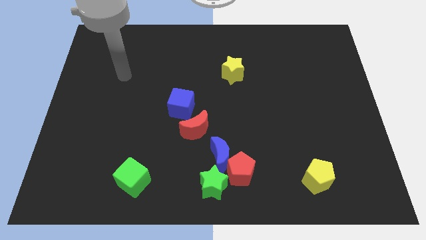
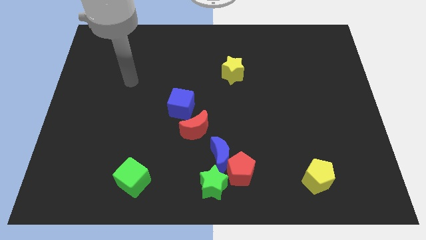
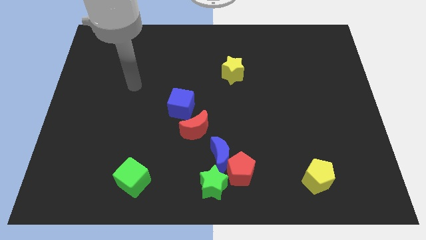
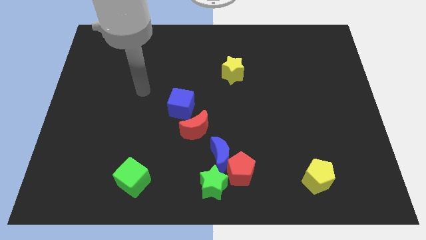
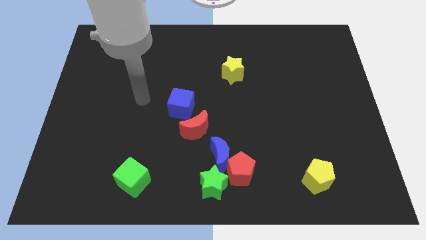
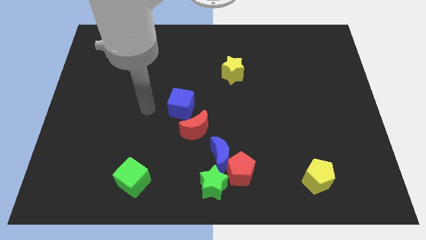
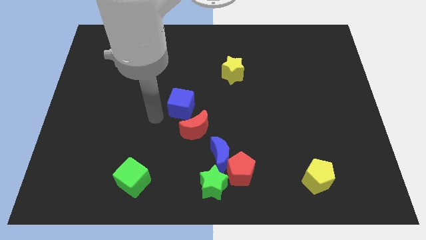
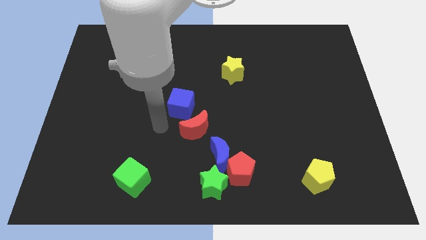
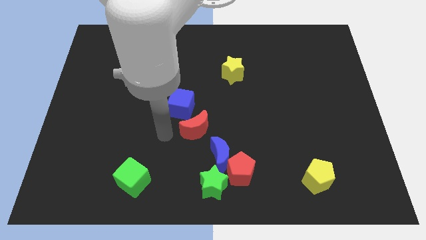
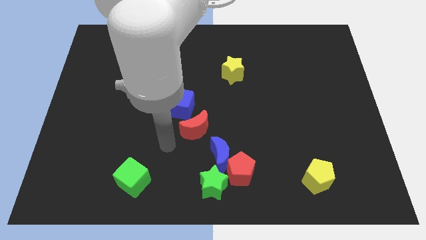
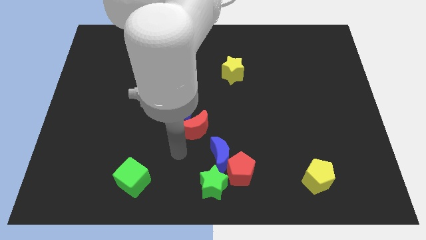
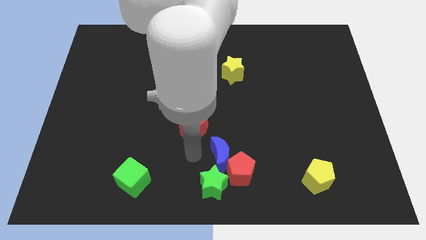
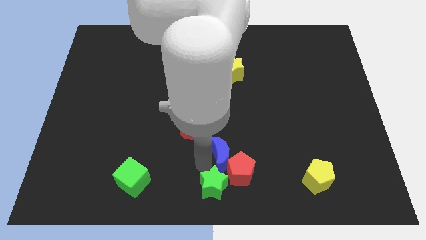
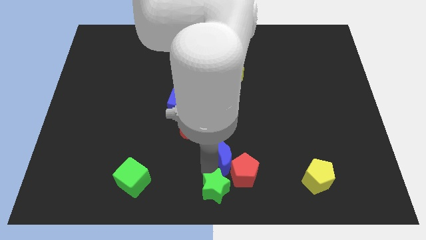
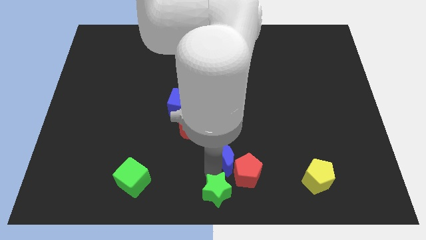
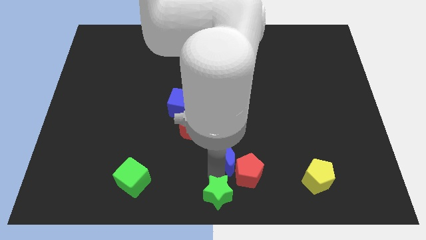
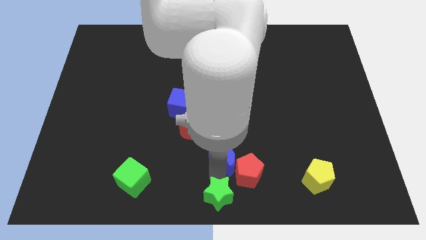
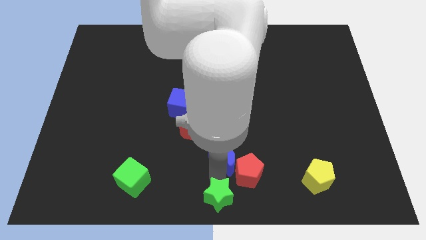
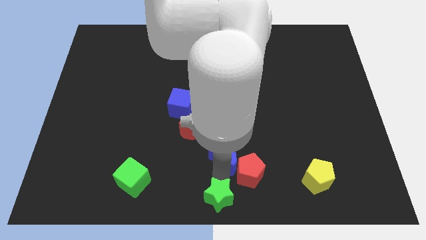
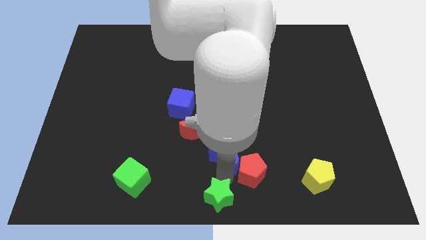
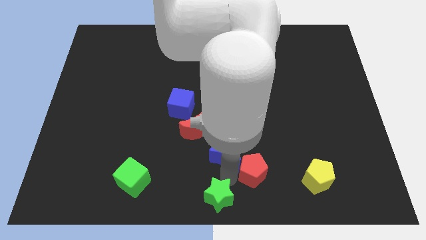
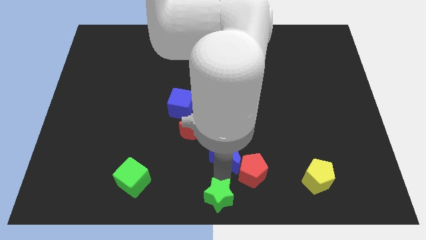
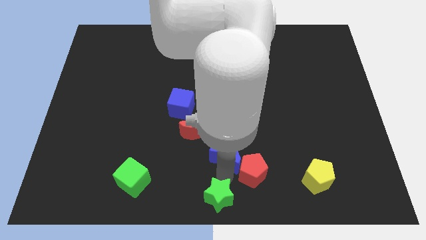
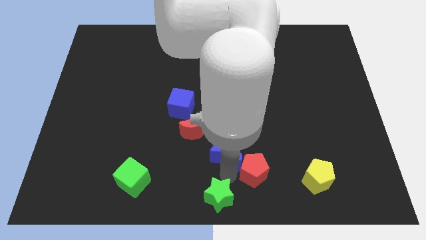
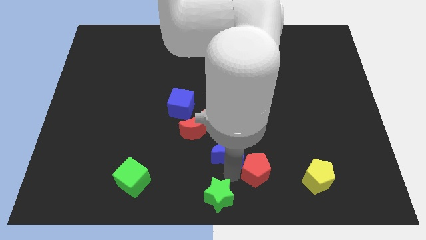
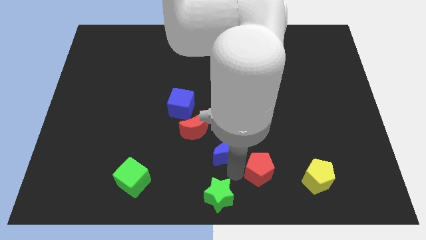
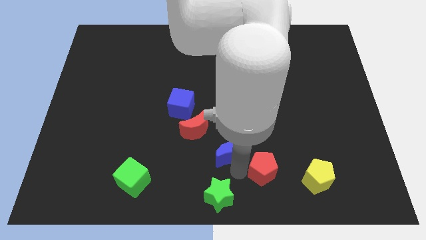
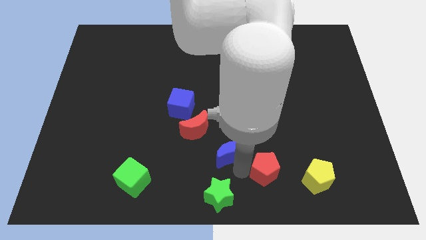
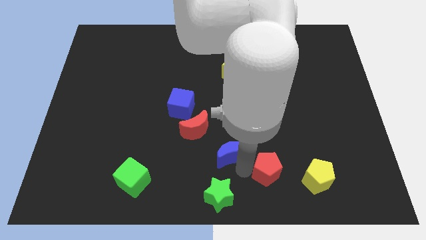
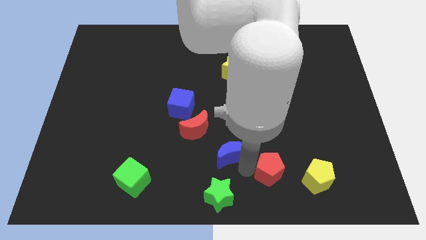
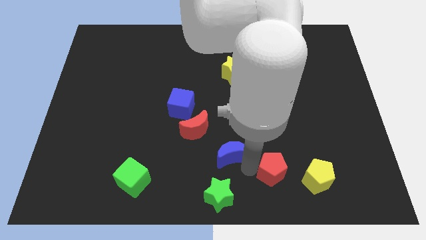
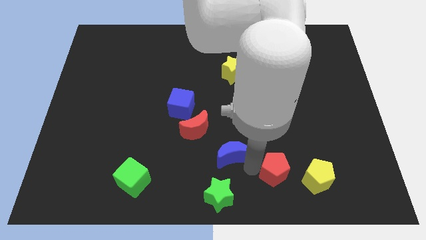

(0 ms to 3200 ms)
pull the red pentagon apart from the blue moon and green star

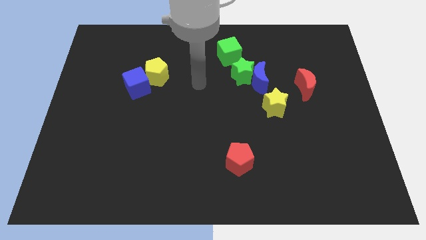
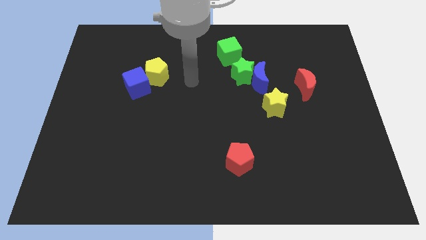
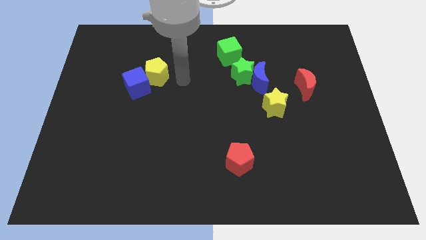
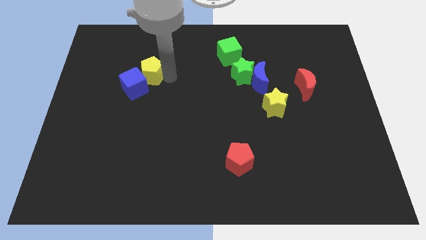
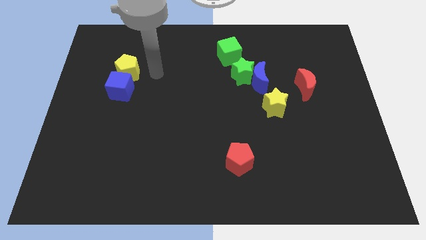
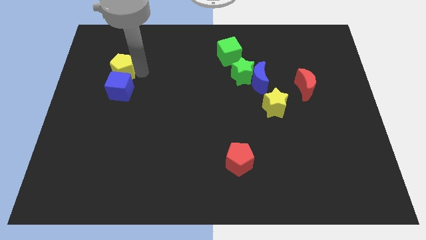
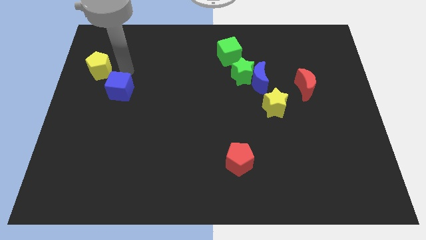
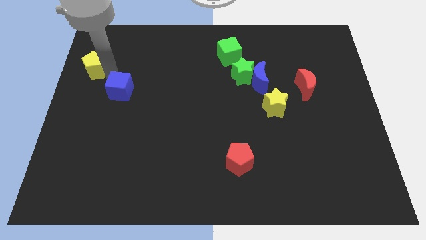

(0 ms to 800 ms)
move the blue cube away from the yellow pentagon

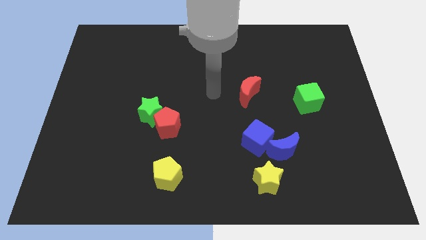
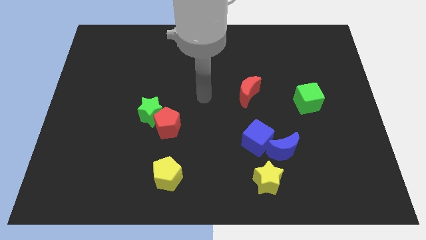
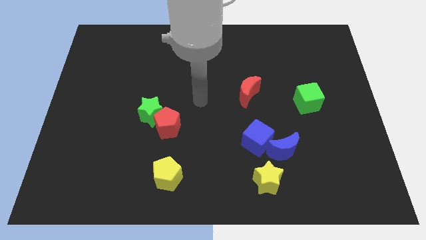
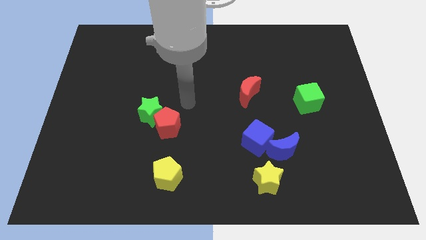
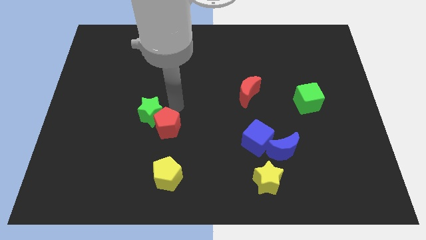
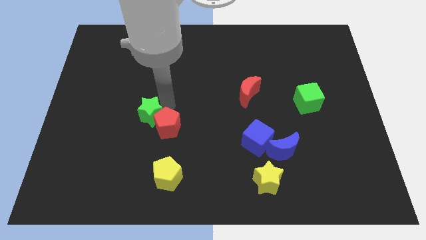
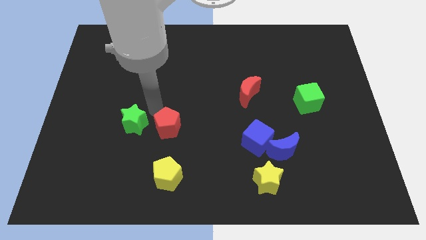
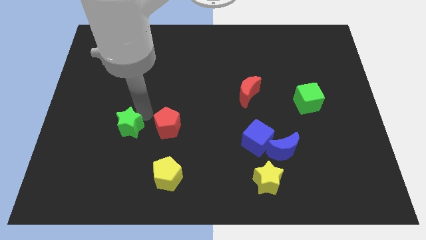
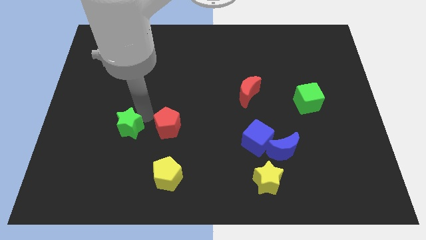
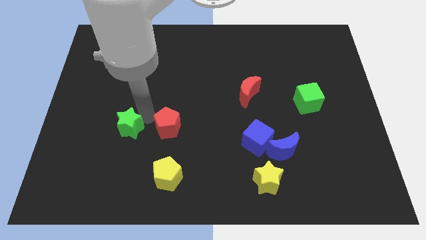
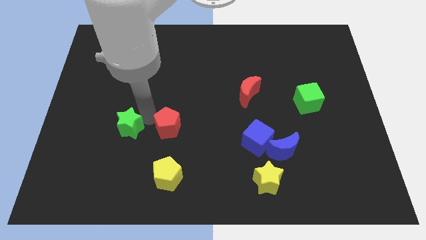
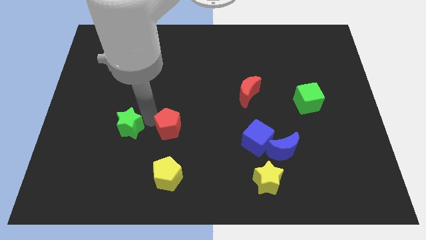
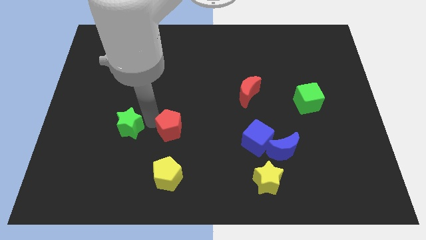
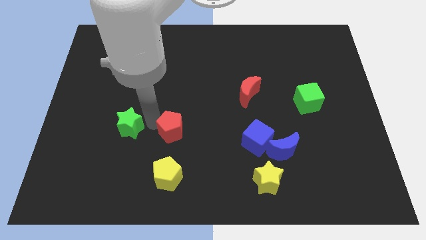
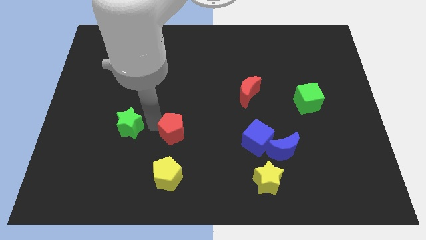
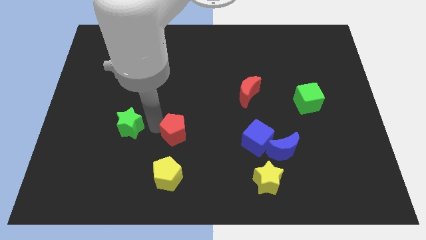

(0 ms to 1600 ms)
separate the red pentagon from the green star

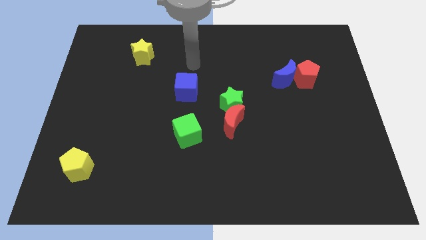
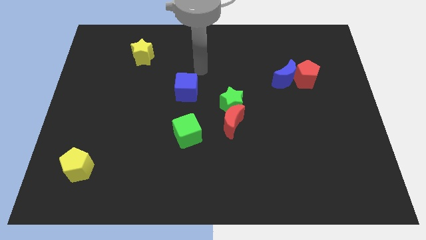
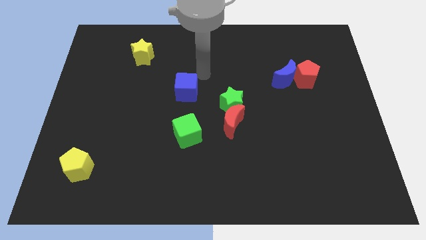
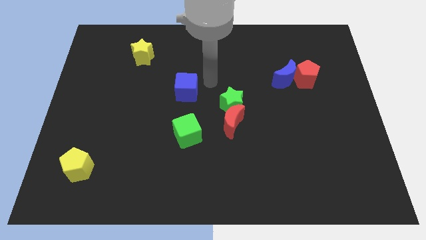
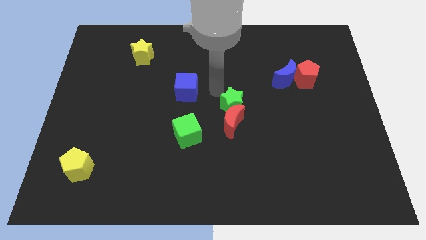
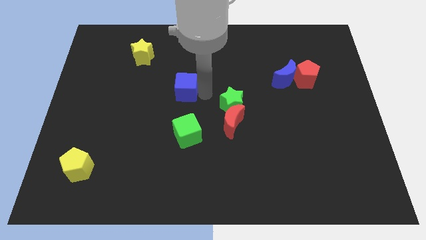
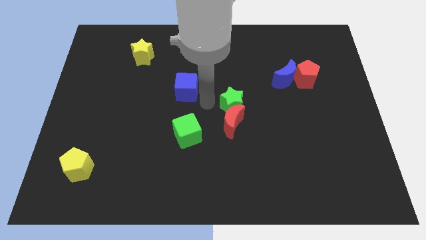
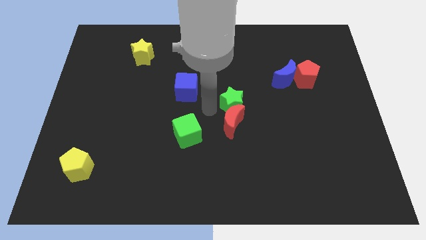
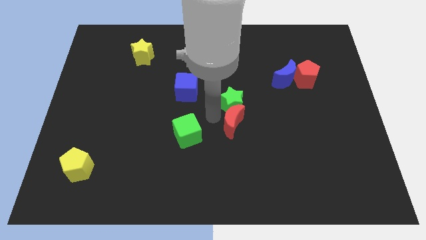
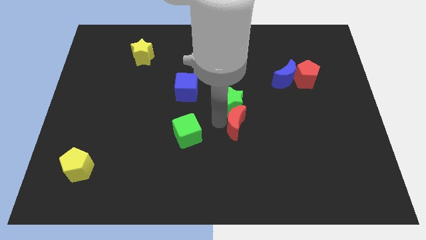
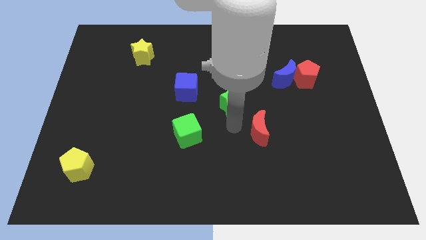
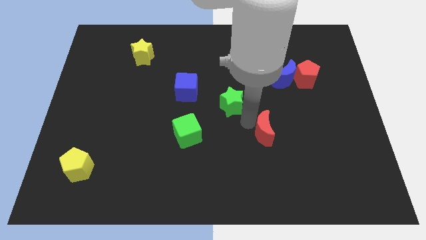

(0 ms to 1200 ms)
move the green star away from the red moon

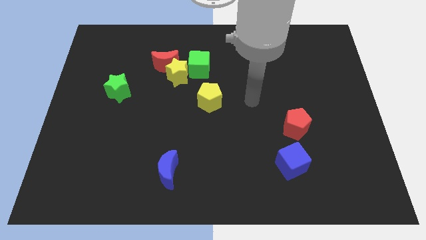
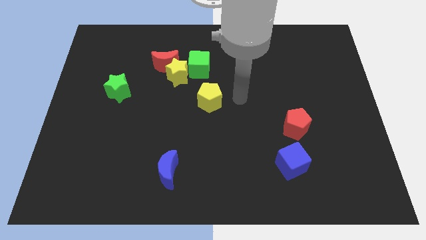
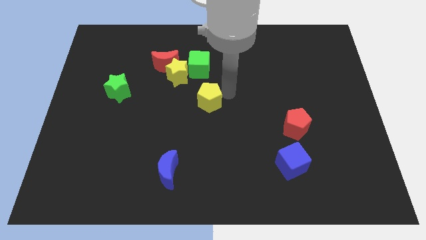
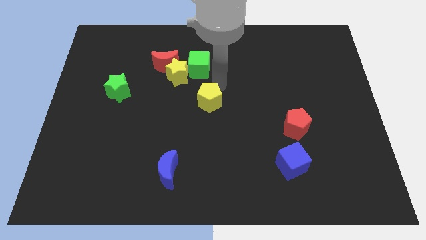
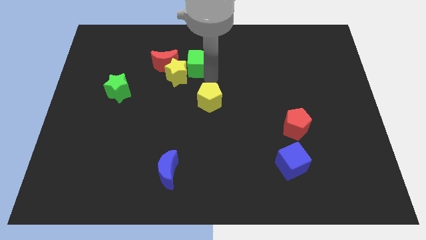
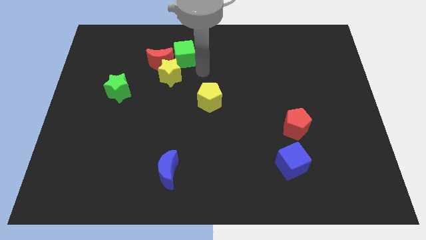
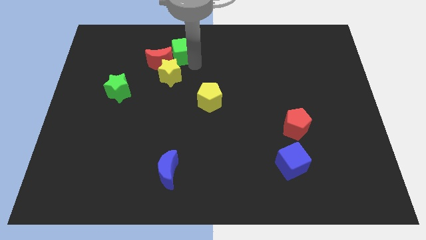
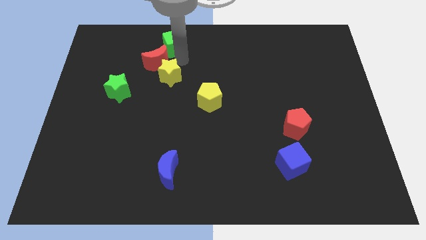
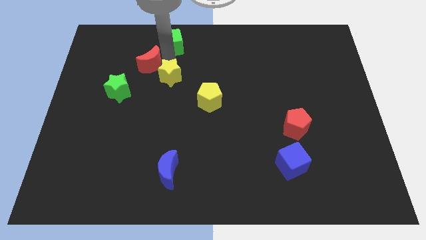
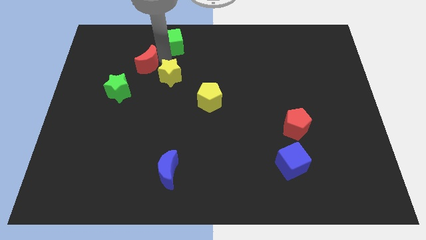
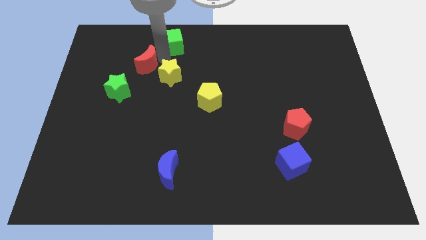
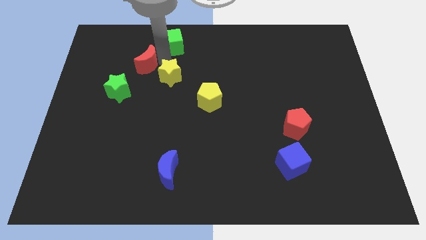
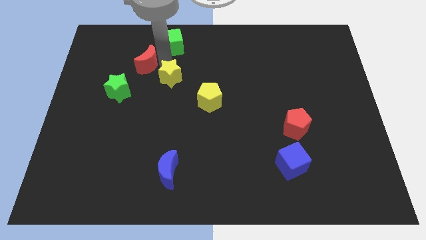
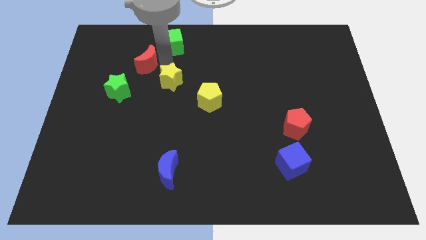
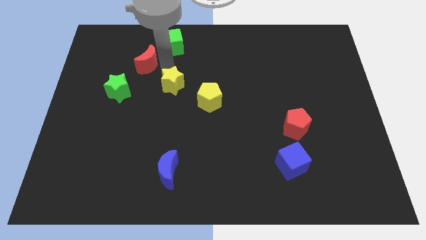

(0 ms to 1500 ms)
separate the yellow star from the red moon and green cube

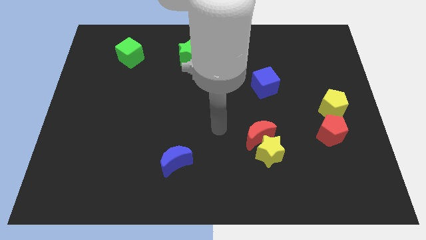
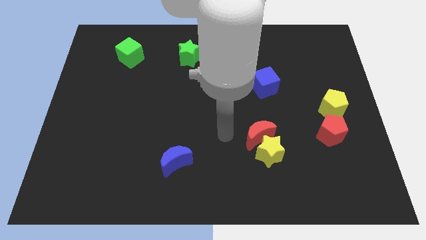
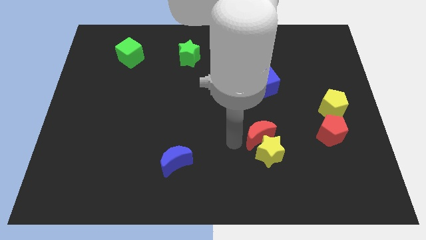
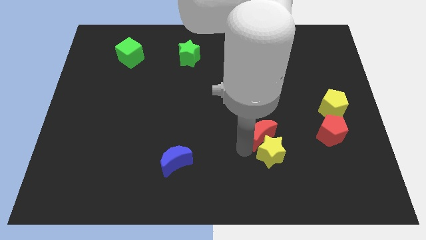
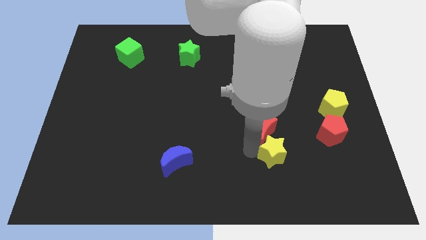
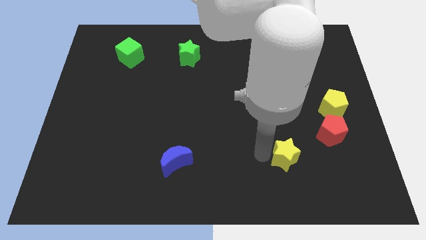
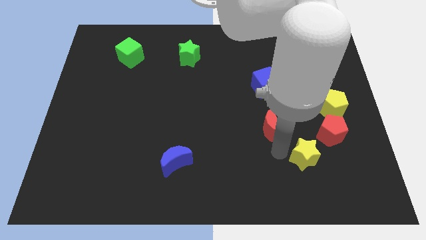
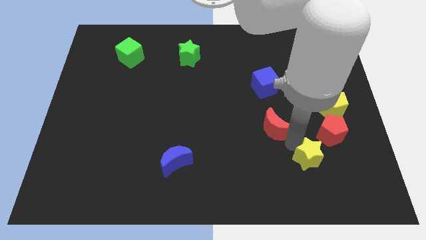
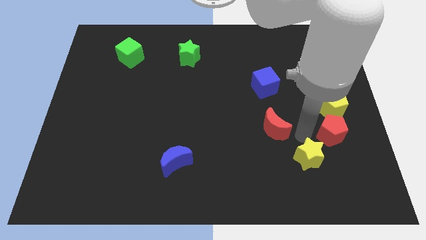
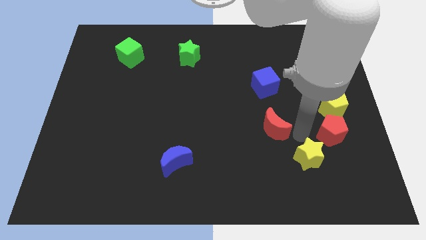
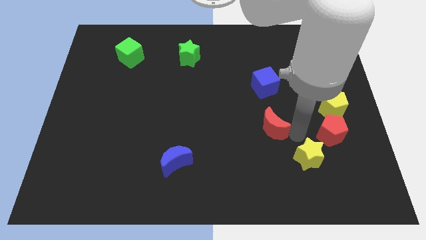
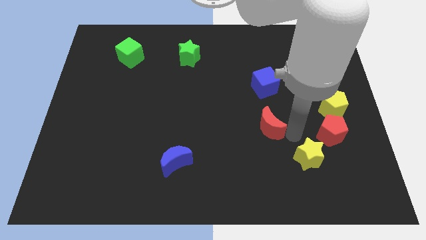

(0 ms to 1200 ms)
pull the red moon apart from the yellow star

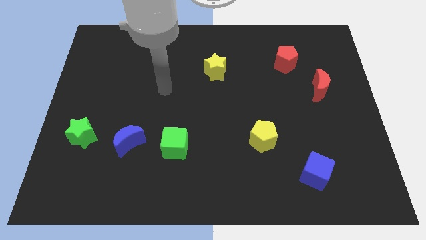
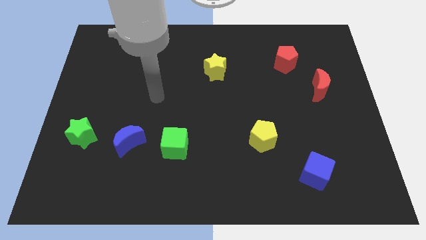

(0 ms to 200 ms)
pull the blue moon apart from the green cube
